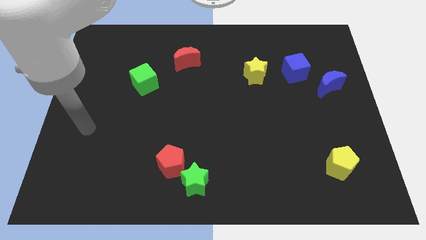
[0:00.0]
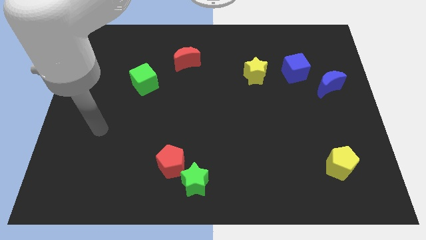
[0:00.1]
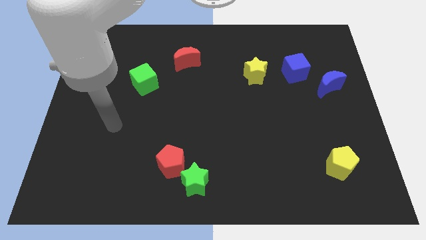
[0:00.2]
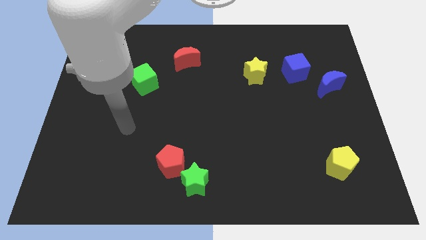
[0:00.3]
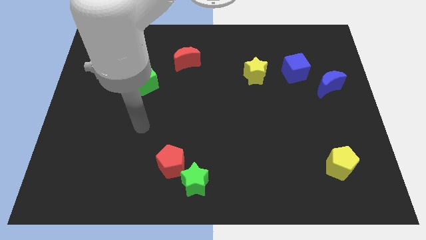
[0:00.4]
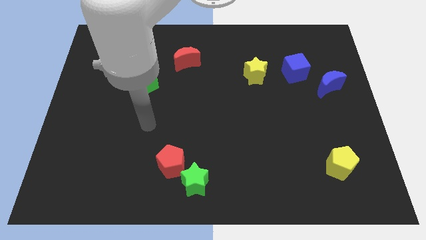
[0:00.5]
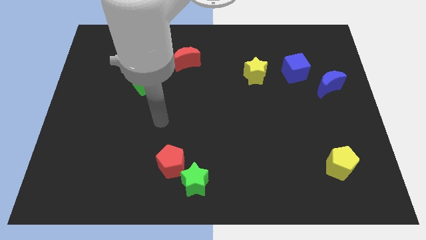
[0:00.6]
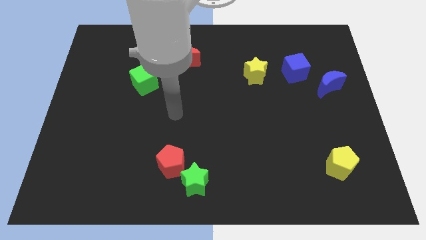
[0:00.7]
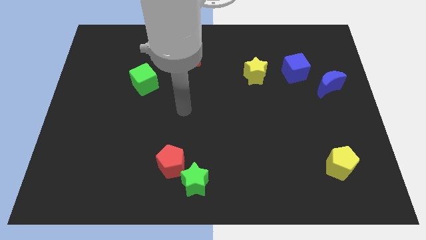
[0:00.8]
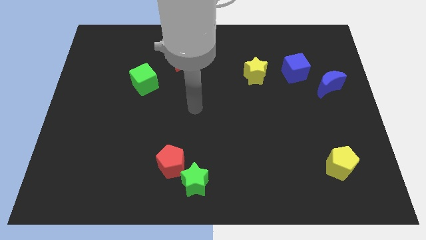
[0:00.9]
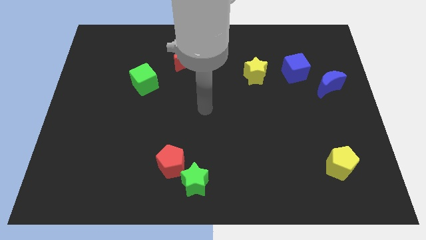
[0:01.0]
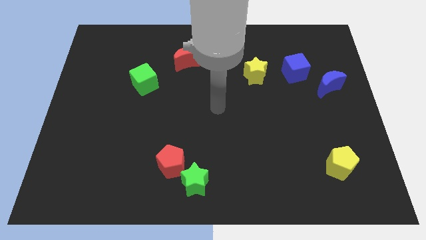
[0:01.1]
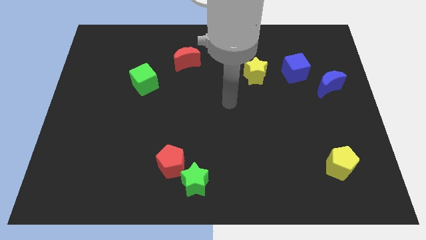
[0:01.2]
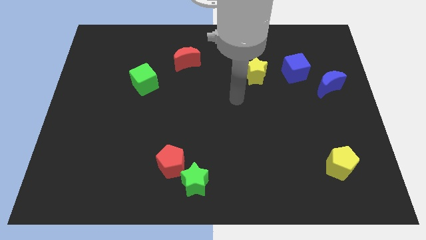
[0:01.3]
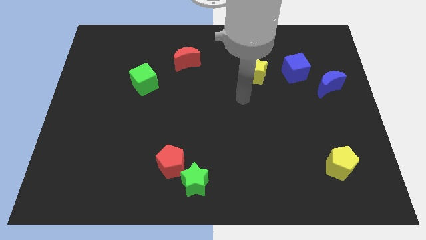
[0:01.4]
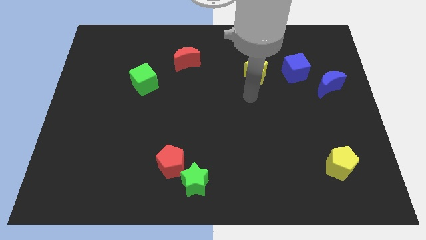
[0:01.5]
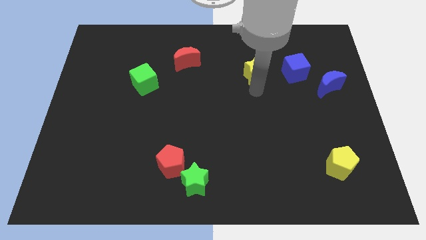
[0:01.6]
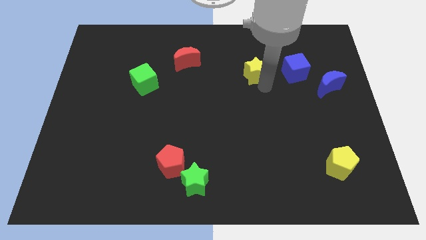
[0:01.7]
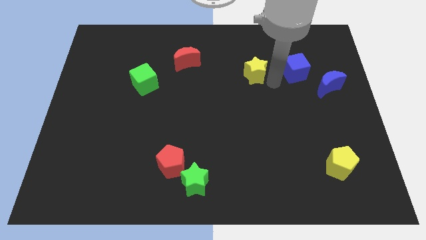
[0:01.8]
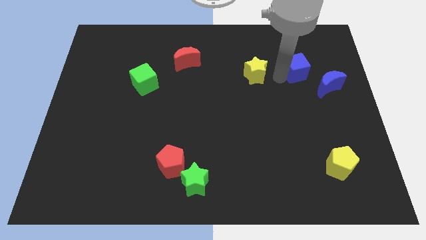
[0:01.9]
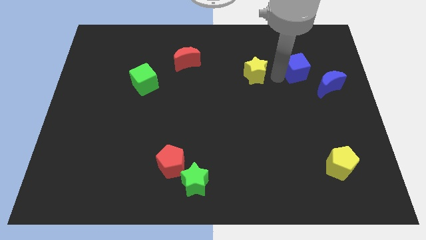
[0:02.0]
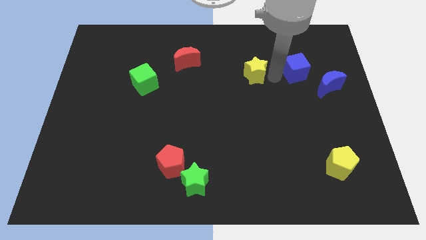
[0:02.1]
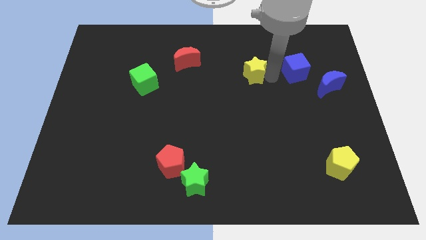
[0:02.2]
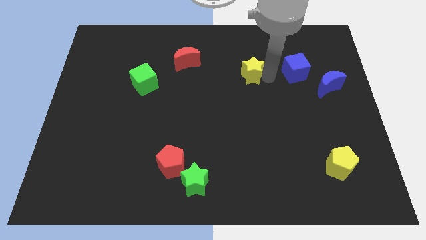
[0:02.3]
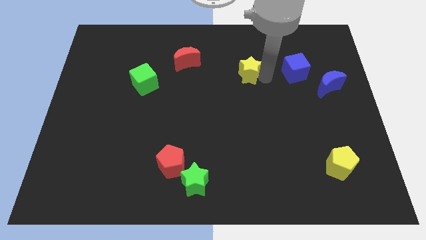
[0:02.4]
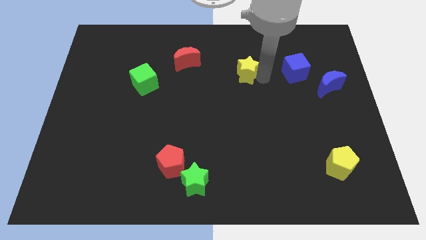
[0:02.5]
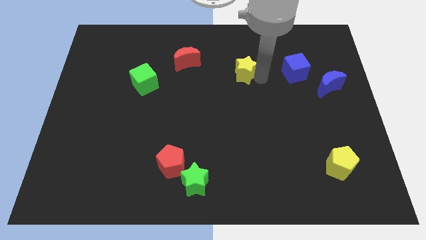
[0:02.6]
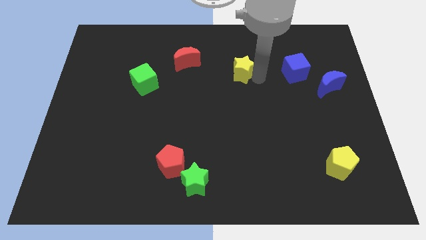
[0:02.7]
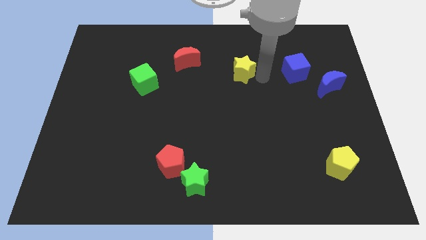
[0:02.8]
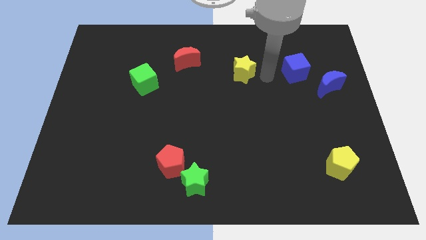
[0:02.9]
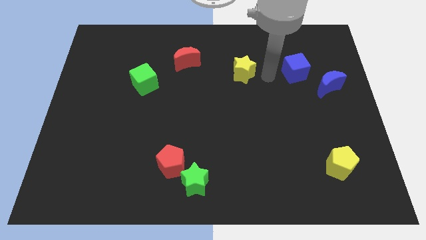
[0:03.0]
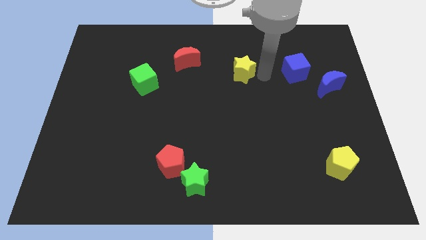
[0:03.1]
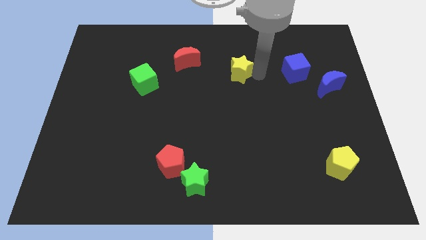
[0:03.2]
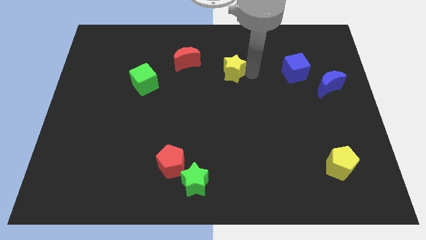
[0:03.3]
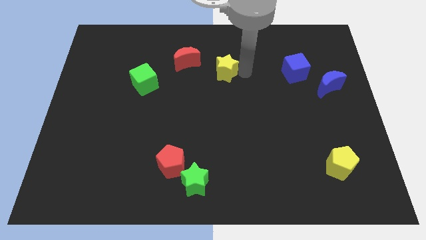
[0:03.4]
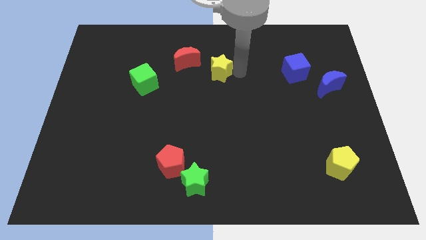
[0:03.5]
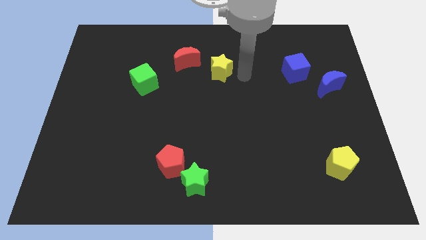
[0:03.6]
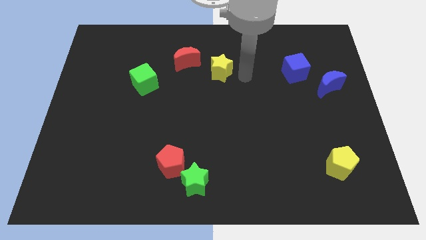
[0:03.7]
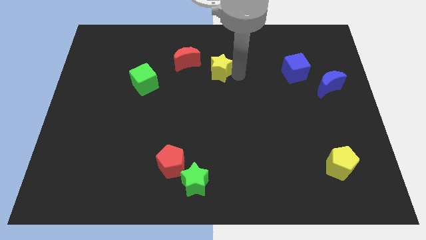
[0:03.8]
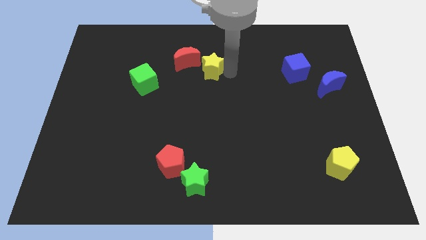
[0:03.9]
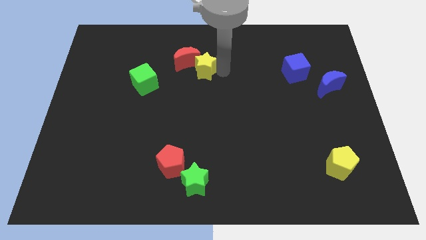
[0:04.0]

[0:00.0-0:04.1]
move the yellow star to the red moon

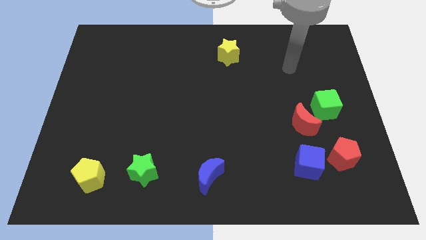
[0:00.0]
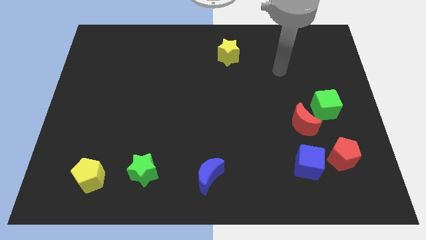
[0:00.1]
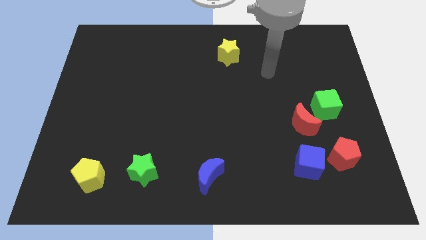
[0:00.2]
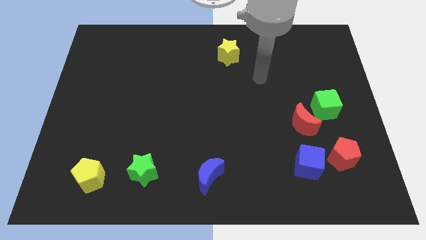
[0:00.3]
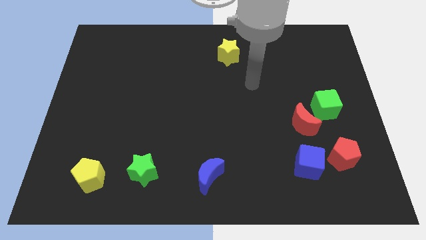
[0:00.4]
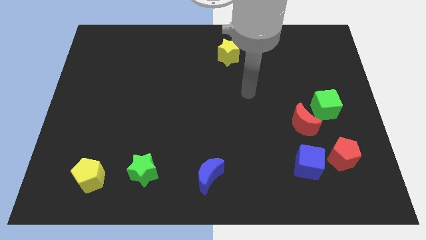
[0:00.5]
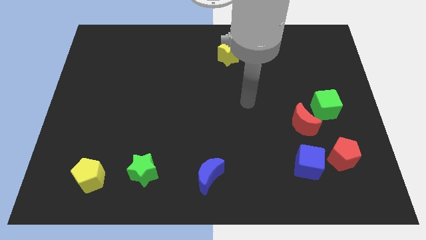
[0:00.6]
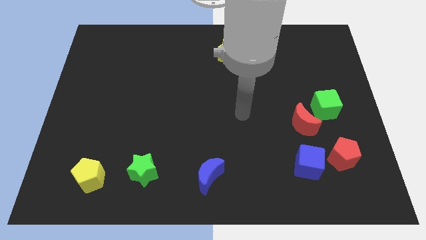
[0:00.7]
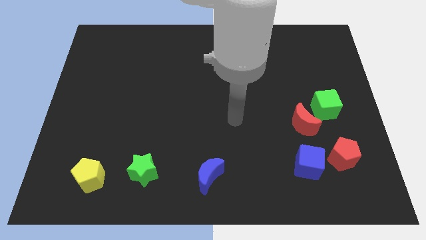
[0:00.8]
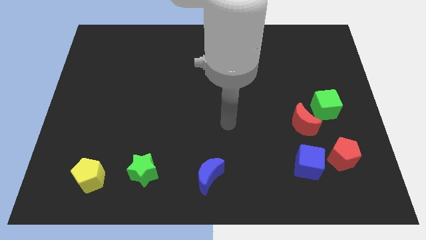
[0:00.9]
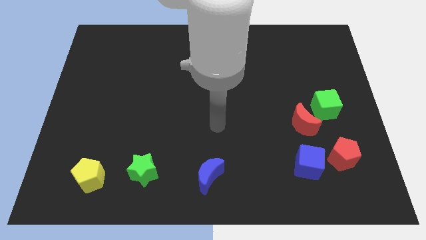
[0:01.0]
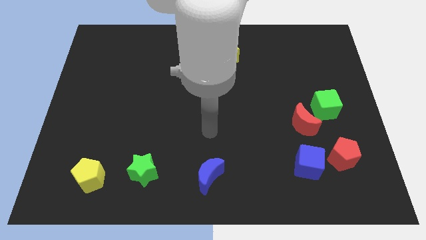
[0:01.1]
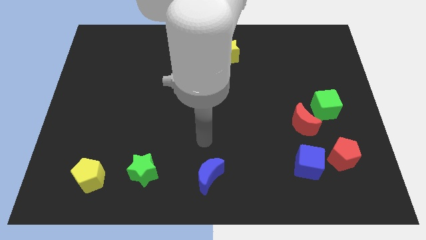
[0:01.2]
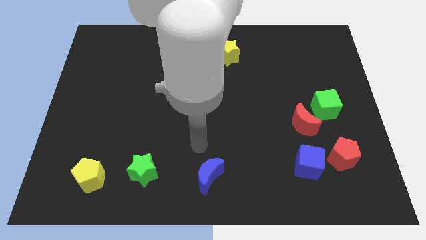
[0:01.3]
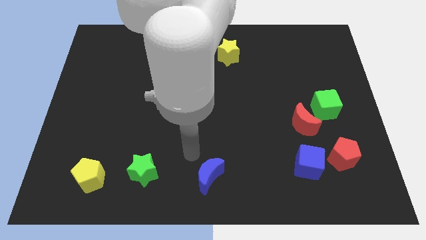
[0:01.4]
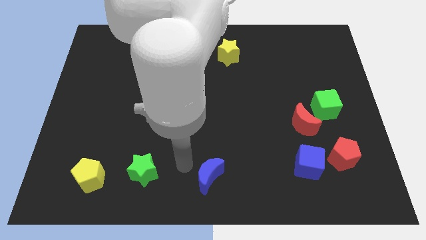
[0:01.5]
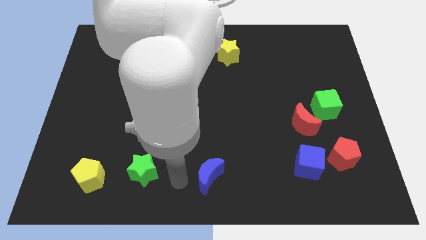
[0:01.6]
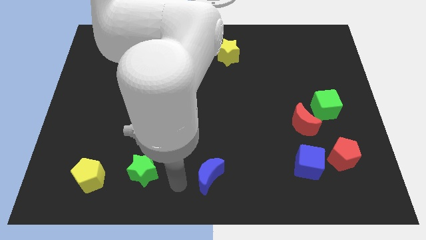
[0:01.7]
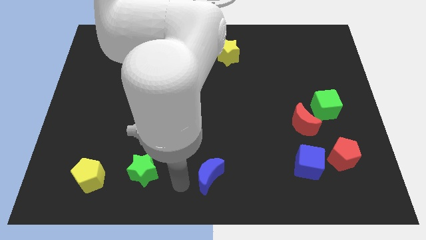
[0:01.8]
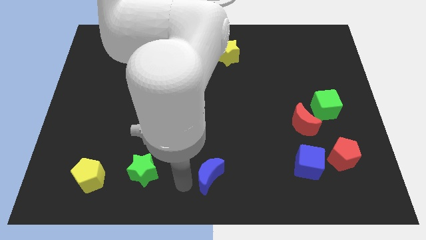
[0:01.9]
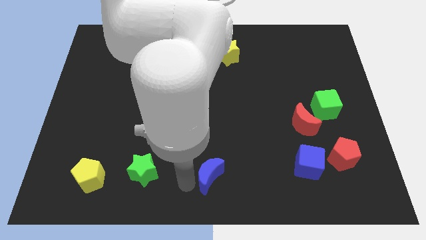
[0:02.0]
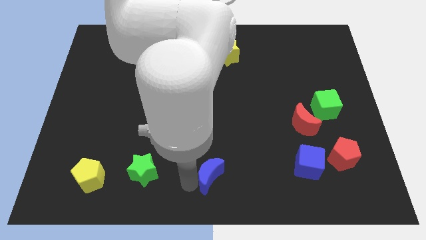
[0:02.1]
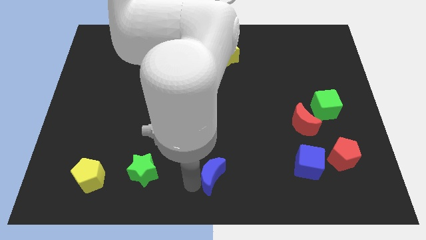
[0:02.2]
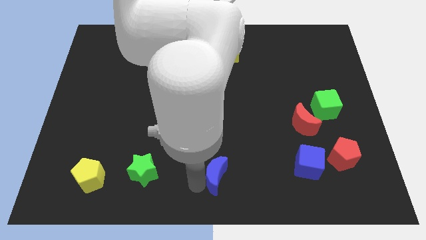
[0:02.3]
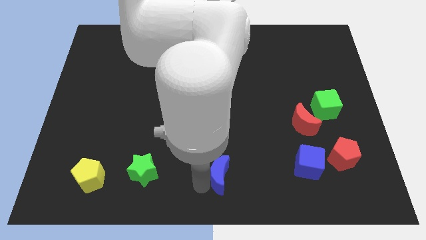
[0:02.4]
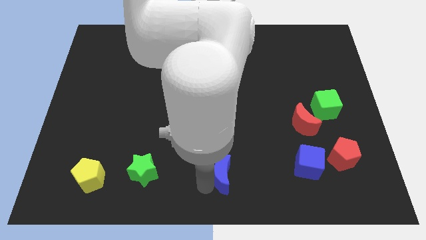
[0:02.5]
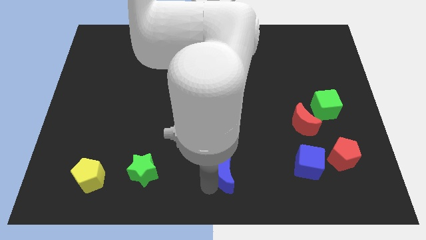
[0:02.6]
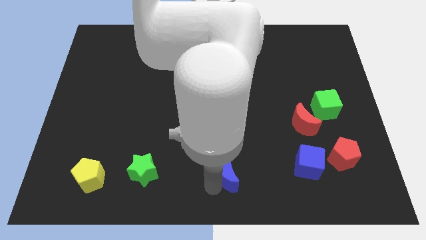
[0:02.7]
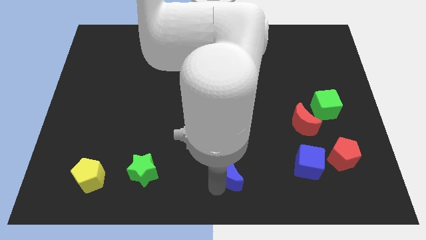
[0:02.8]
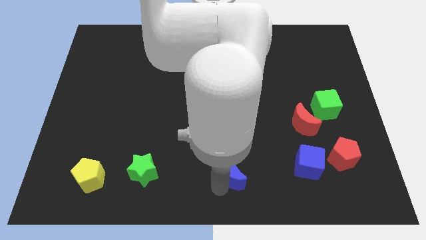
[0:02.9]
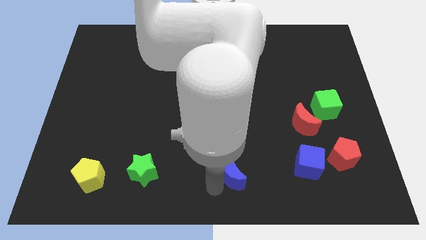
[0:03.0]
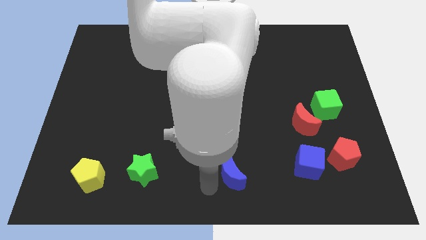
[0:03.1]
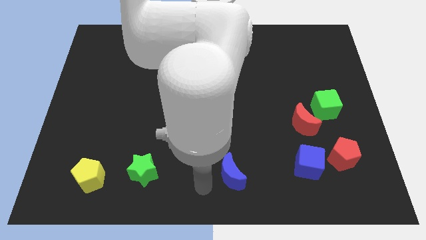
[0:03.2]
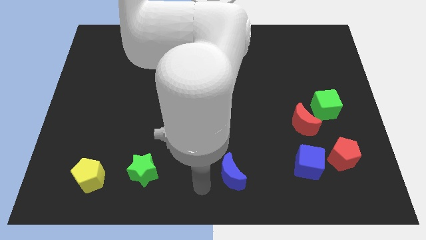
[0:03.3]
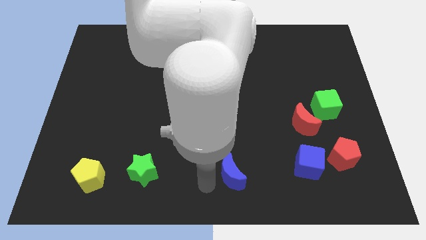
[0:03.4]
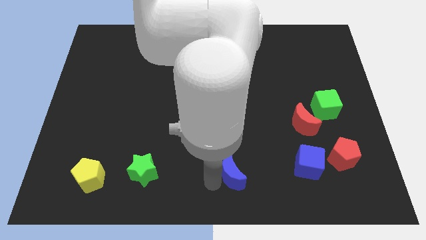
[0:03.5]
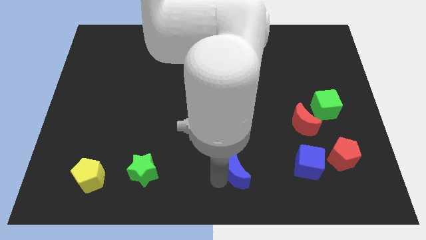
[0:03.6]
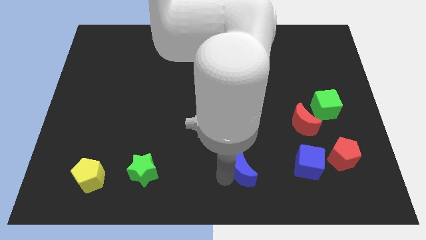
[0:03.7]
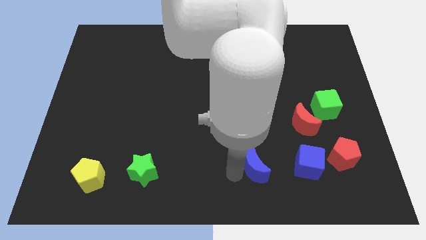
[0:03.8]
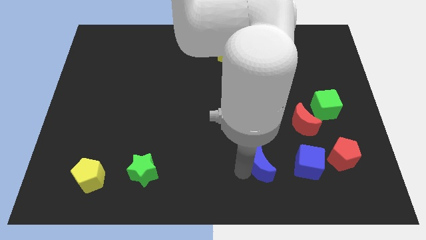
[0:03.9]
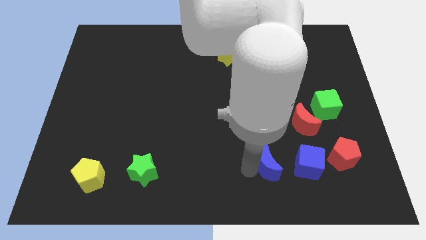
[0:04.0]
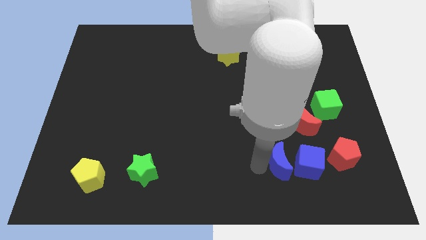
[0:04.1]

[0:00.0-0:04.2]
move the blue moon towards the blue cube
